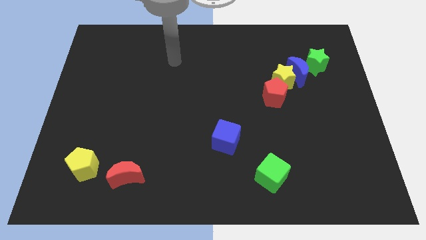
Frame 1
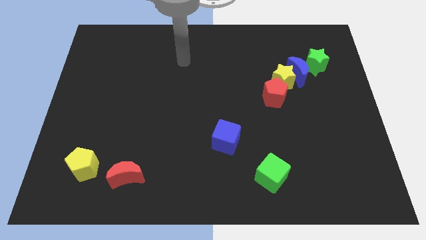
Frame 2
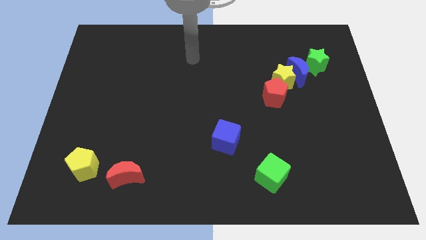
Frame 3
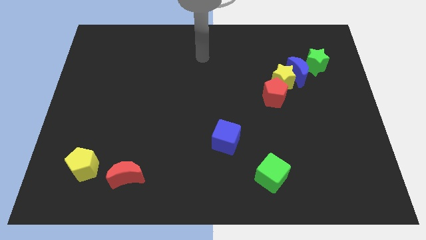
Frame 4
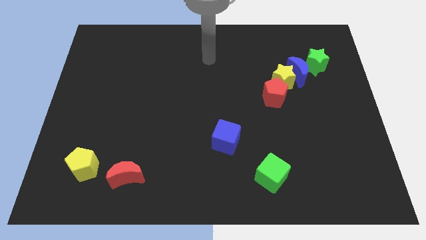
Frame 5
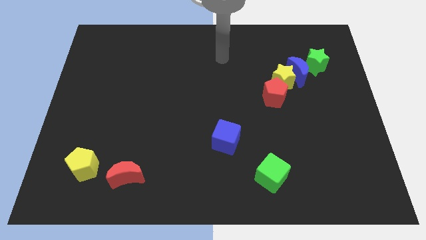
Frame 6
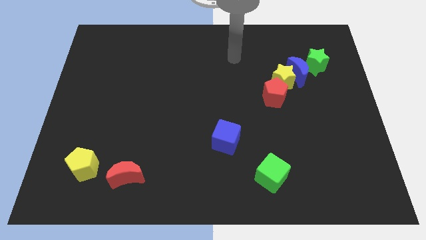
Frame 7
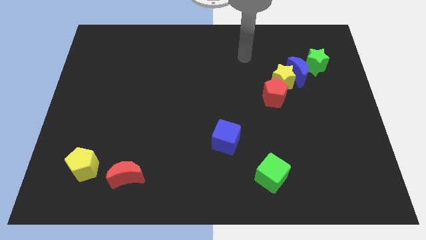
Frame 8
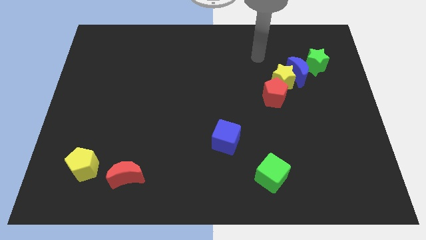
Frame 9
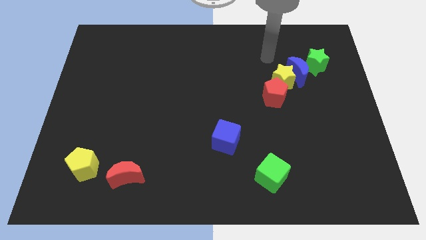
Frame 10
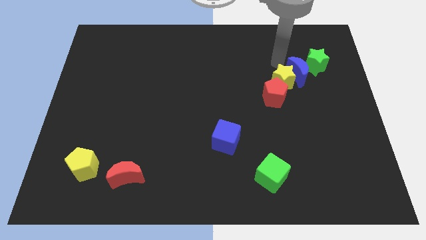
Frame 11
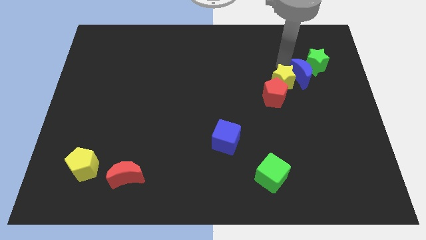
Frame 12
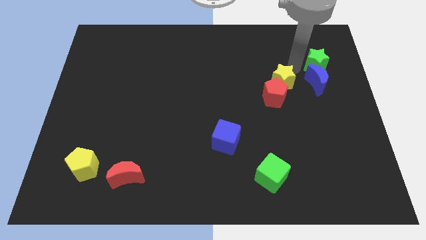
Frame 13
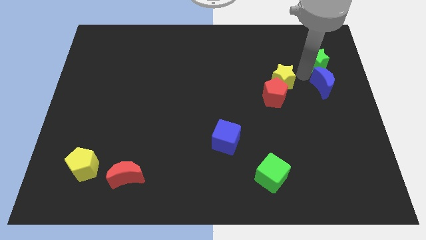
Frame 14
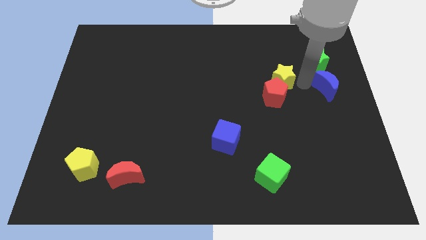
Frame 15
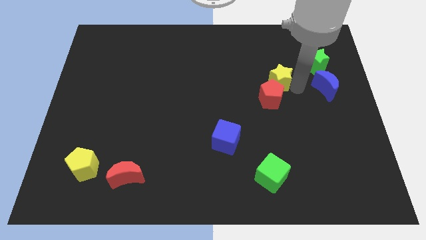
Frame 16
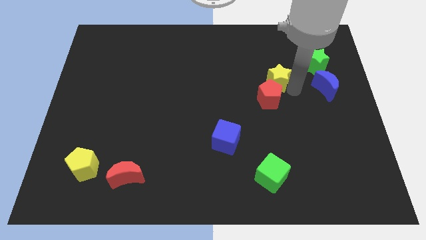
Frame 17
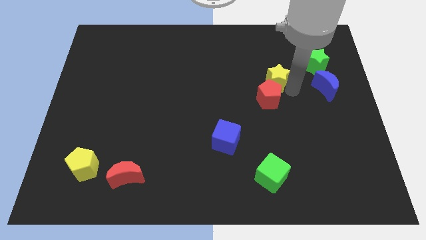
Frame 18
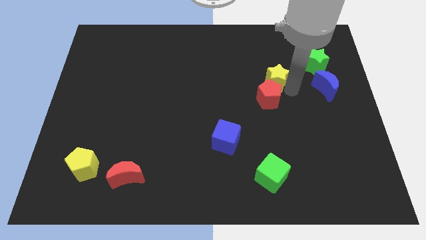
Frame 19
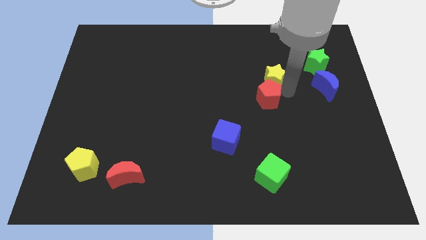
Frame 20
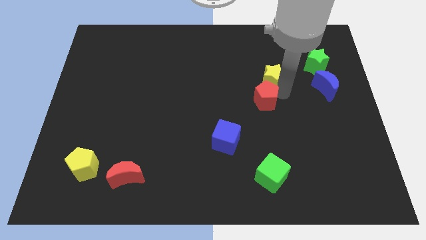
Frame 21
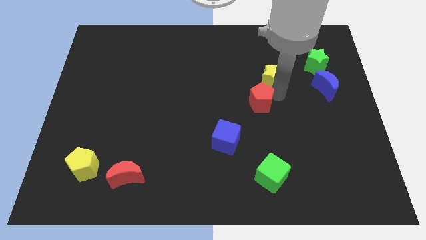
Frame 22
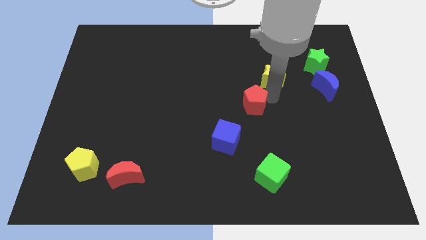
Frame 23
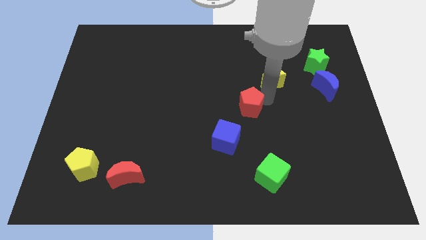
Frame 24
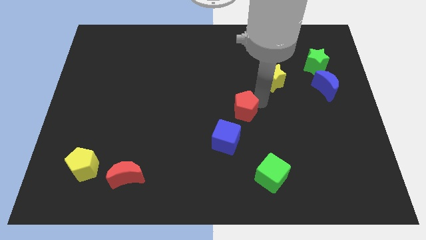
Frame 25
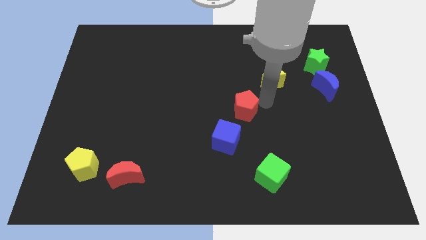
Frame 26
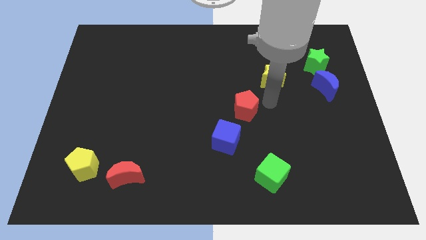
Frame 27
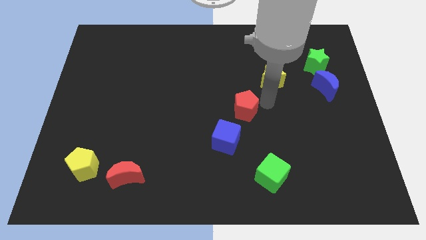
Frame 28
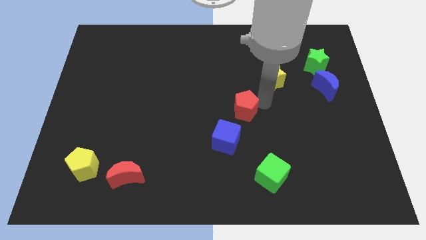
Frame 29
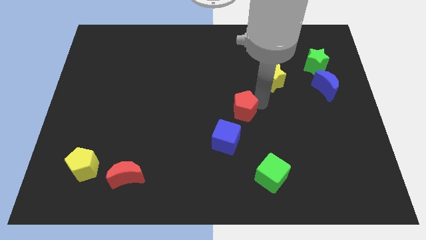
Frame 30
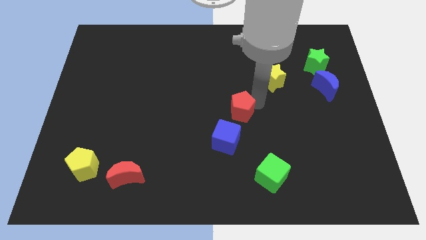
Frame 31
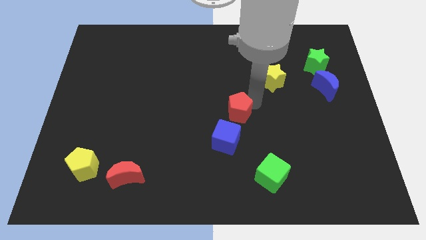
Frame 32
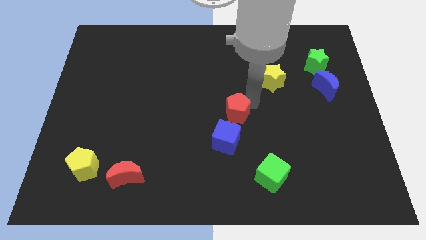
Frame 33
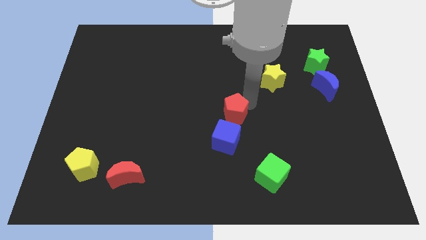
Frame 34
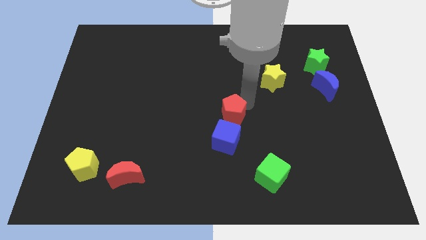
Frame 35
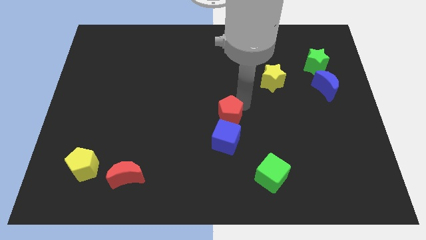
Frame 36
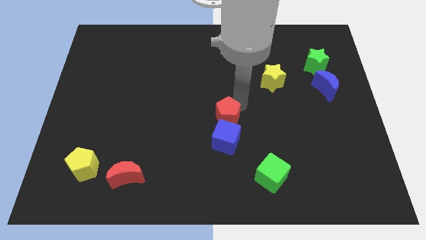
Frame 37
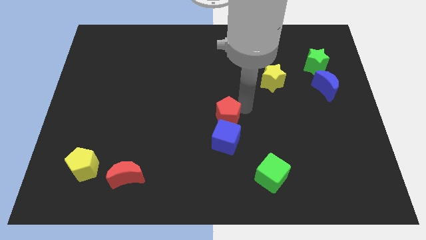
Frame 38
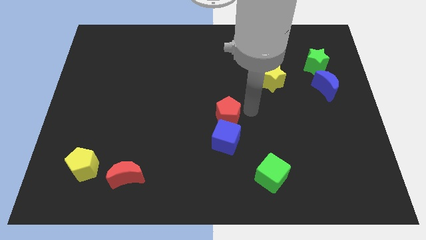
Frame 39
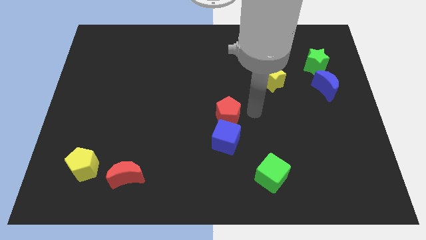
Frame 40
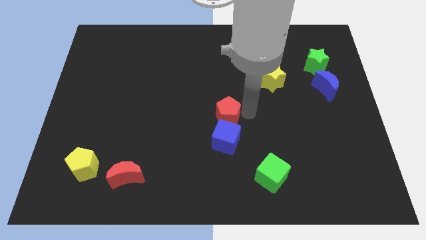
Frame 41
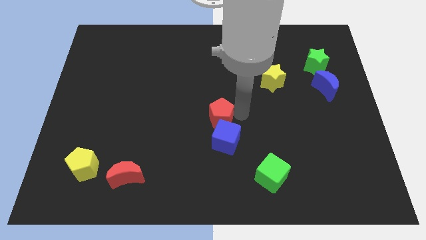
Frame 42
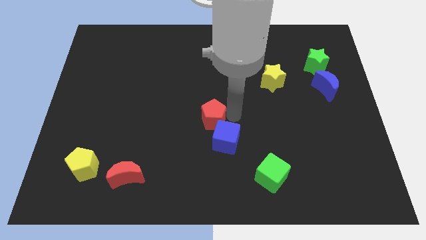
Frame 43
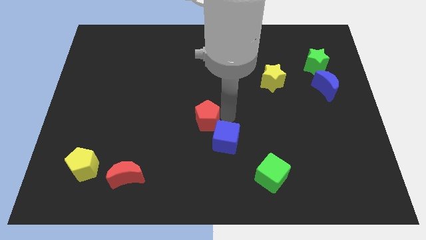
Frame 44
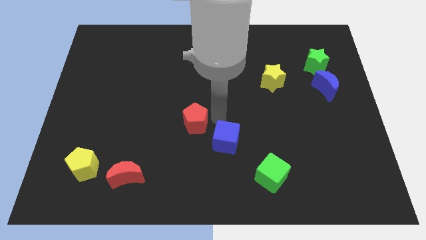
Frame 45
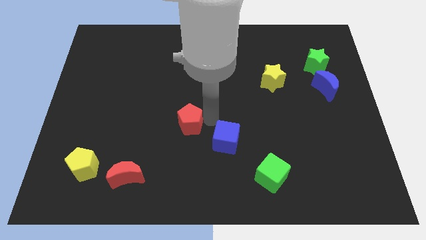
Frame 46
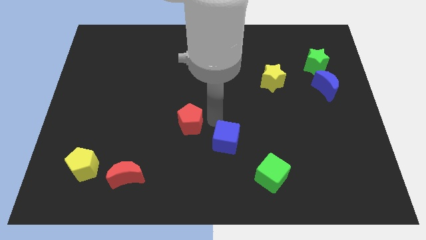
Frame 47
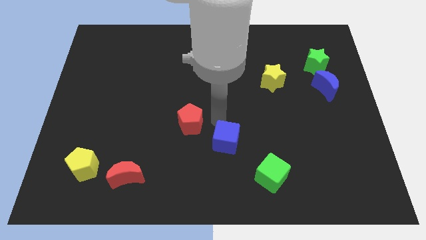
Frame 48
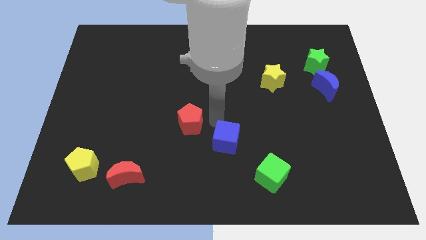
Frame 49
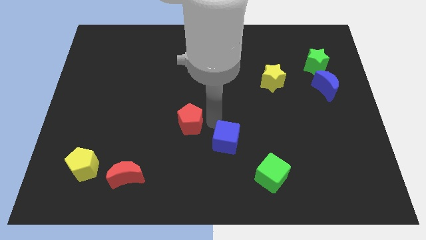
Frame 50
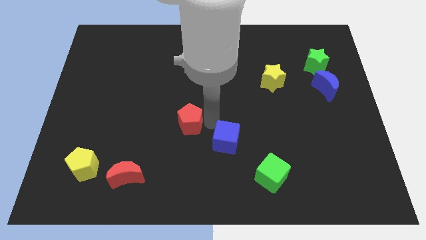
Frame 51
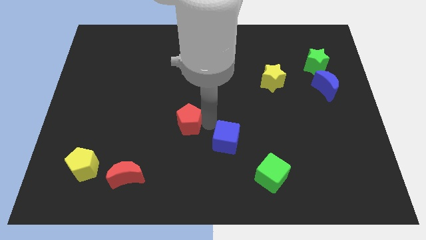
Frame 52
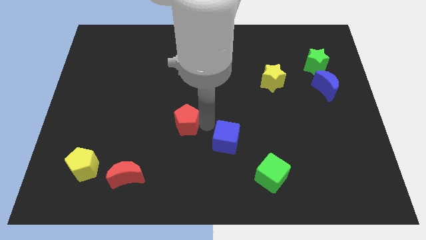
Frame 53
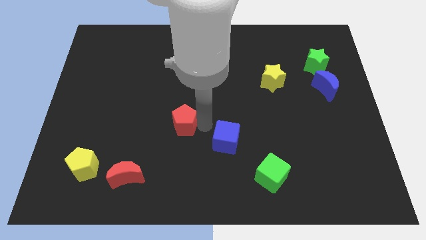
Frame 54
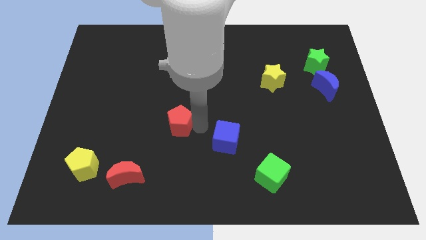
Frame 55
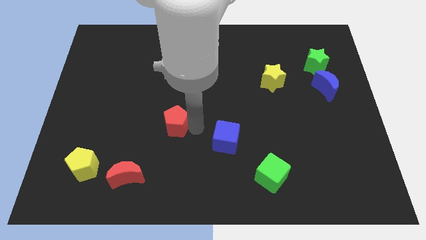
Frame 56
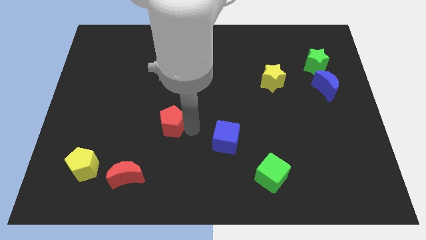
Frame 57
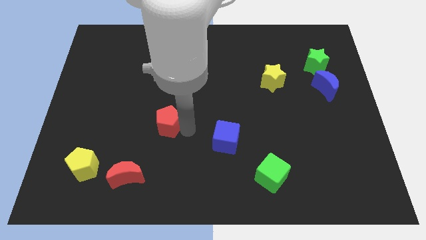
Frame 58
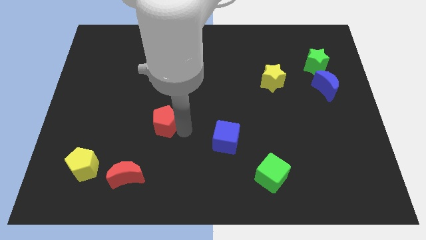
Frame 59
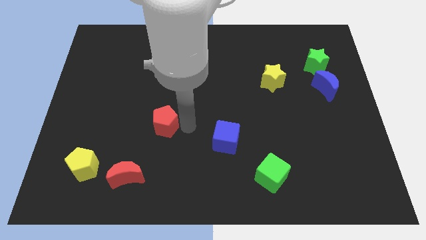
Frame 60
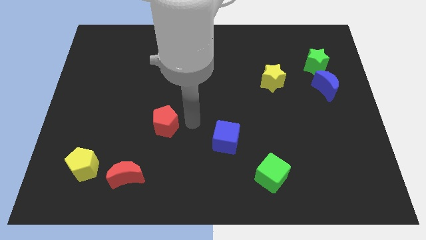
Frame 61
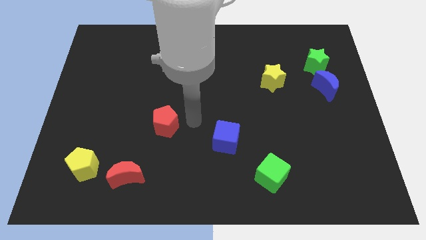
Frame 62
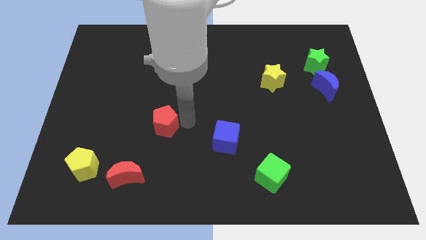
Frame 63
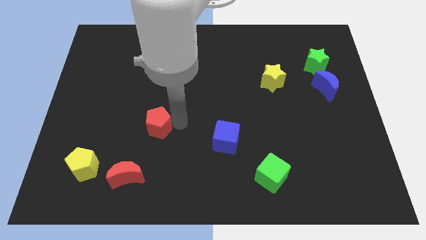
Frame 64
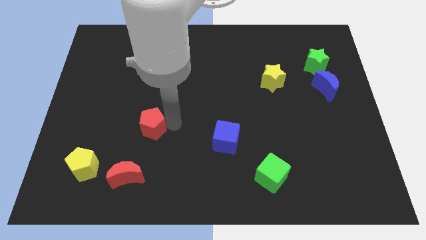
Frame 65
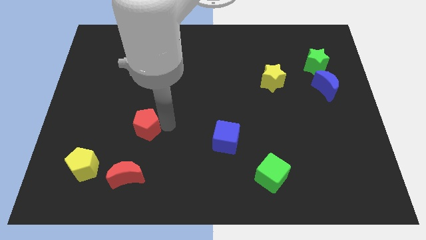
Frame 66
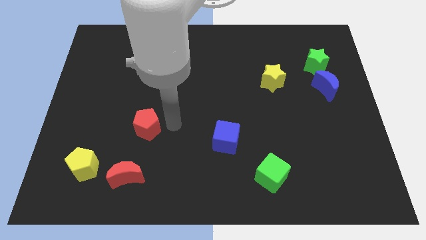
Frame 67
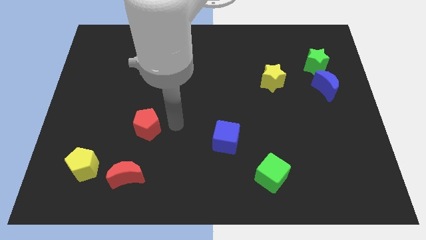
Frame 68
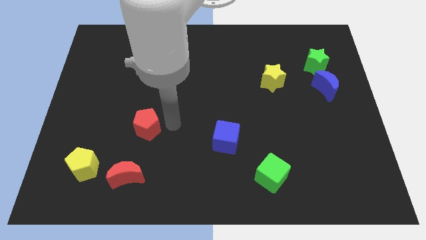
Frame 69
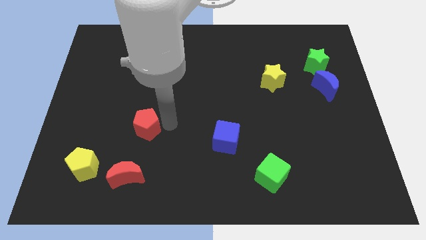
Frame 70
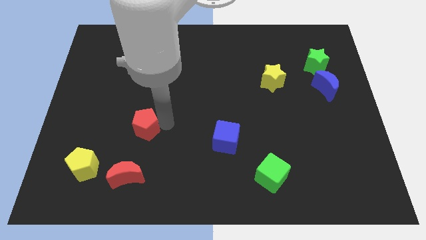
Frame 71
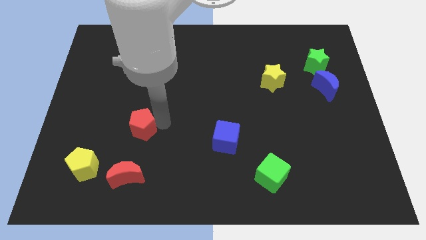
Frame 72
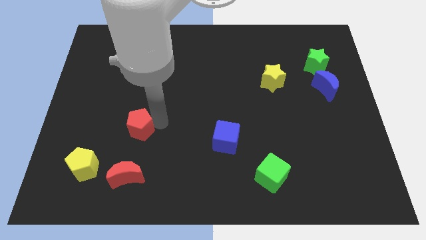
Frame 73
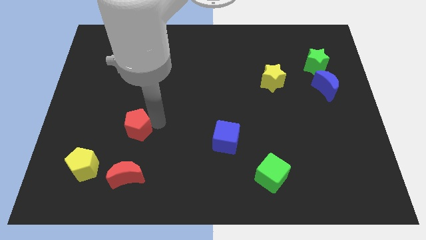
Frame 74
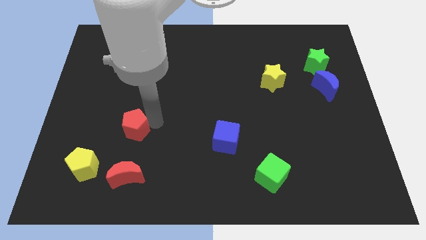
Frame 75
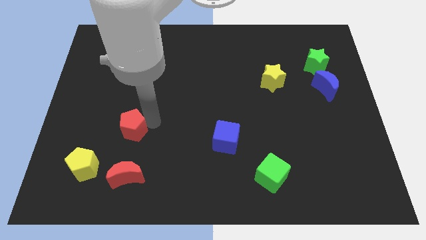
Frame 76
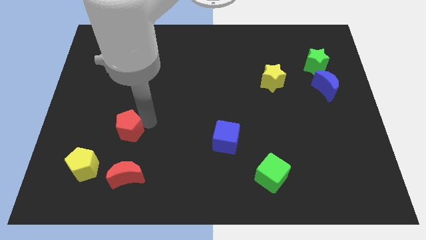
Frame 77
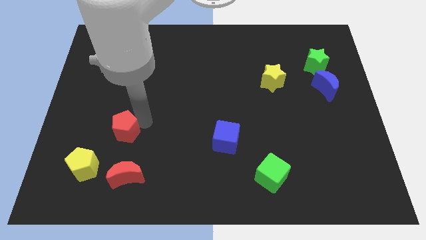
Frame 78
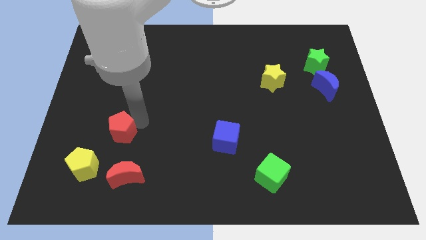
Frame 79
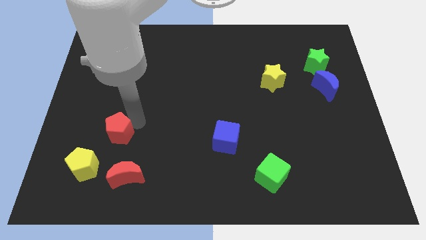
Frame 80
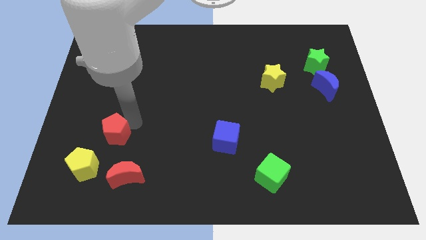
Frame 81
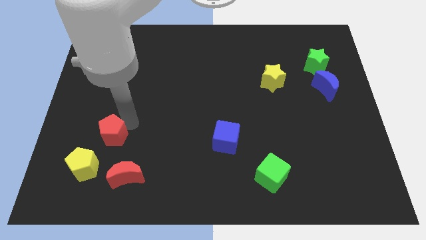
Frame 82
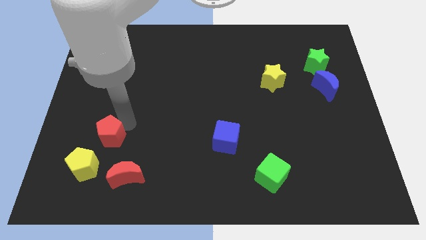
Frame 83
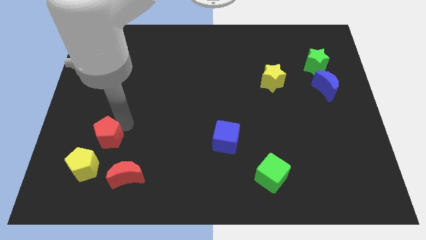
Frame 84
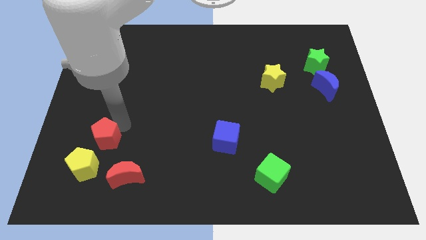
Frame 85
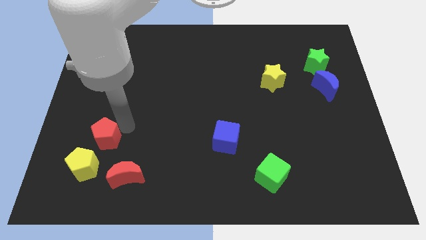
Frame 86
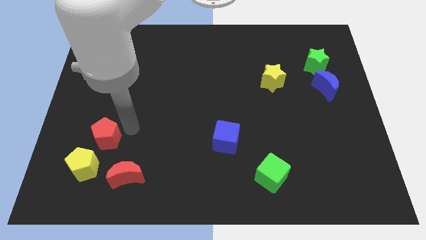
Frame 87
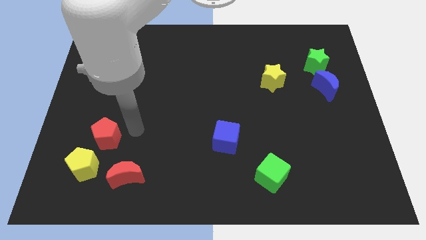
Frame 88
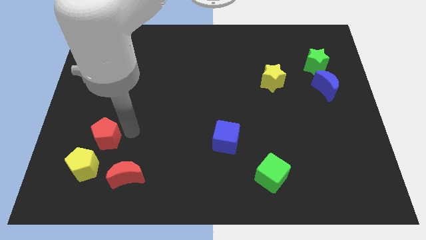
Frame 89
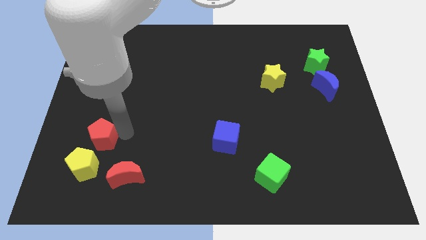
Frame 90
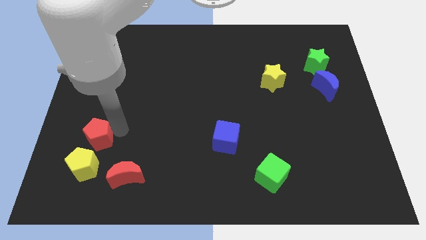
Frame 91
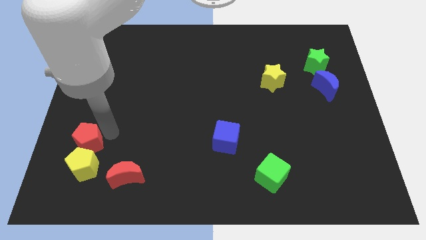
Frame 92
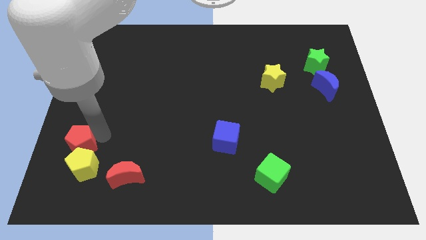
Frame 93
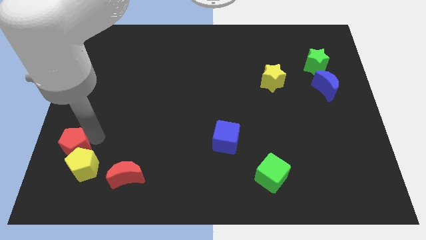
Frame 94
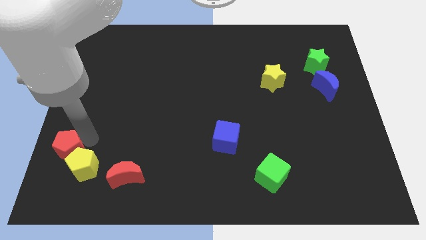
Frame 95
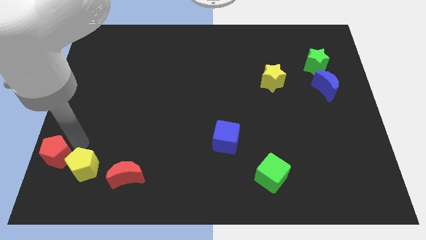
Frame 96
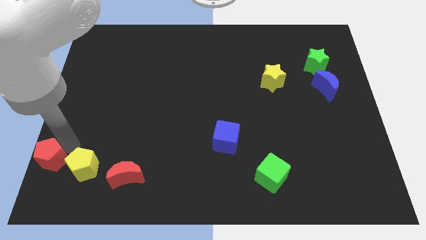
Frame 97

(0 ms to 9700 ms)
move the red pentagon to the bottom left corner
